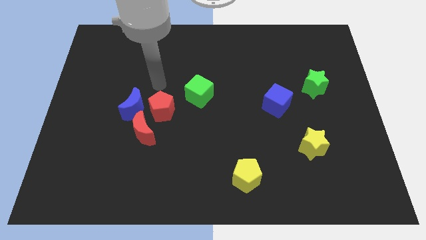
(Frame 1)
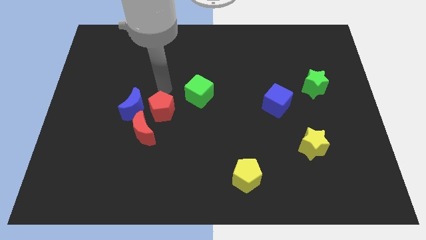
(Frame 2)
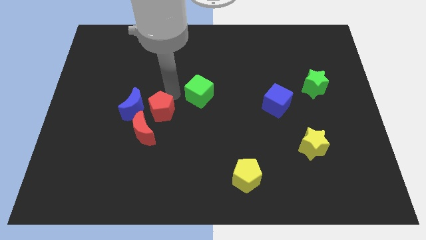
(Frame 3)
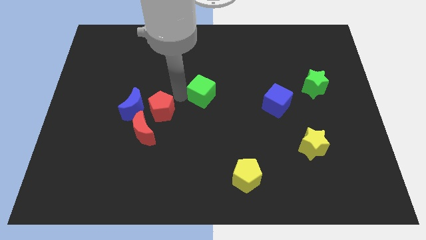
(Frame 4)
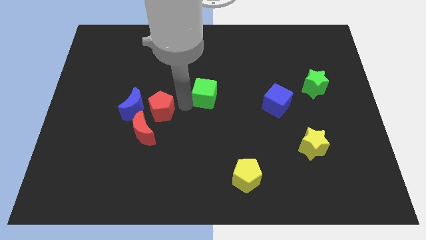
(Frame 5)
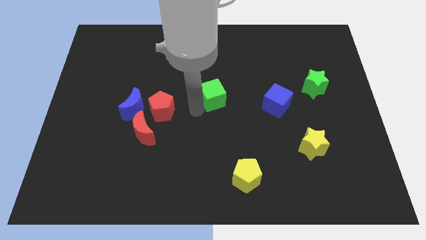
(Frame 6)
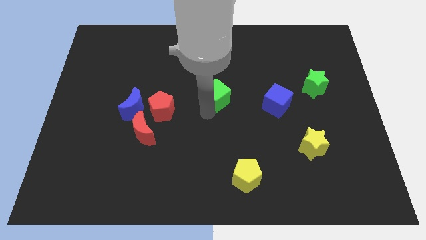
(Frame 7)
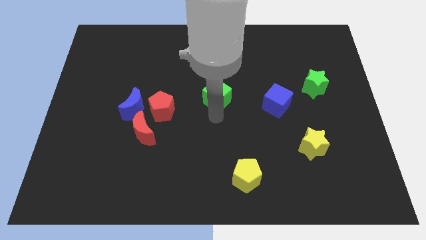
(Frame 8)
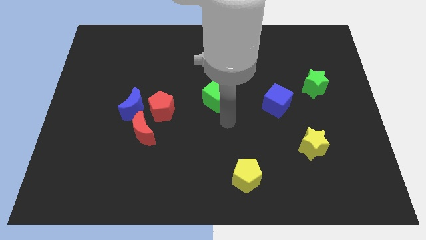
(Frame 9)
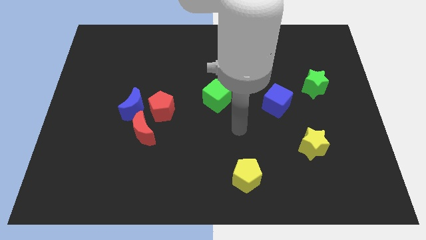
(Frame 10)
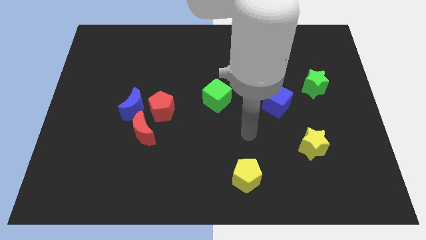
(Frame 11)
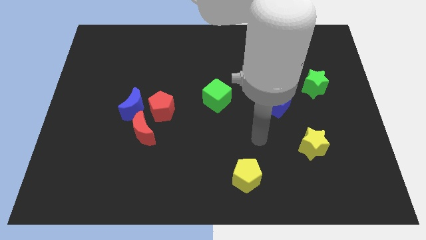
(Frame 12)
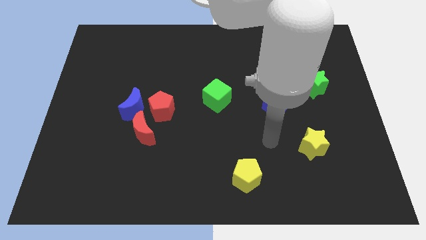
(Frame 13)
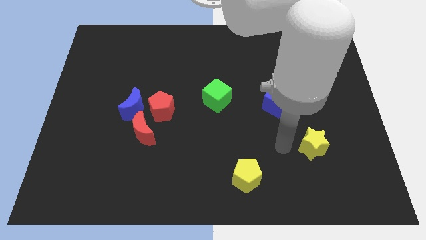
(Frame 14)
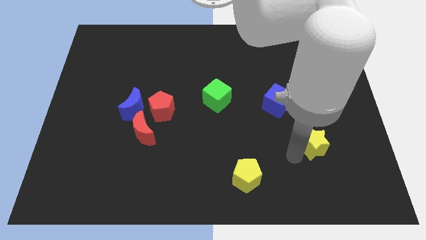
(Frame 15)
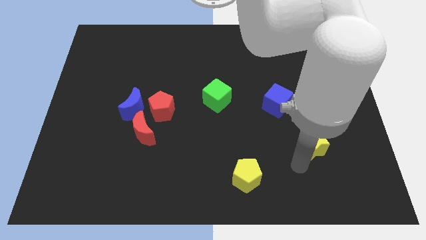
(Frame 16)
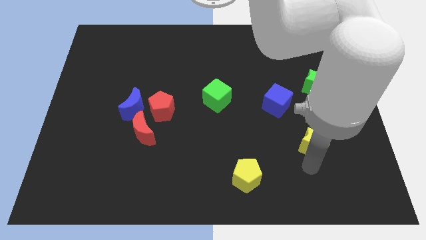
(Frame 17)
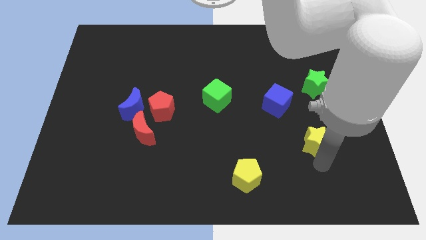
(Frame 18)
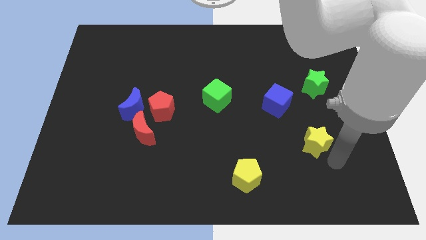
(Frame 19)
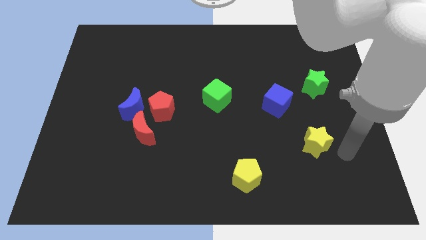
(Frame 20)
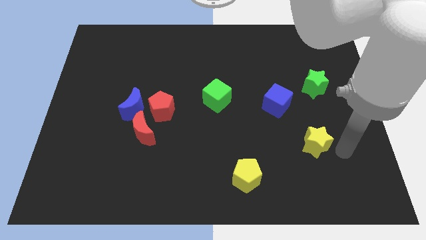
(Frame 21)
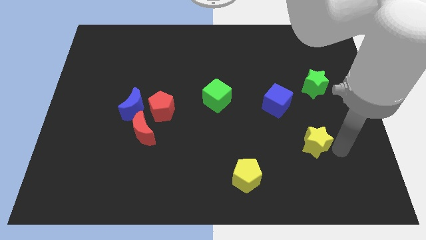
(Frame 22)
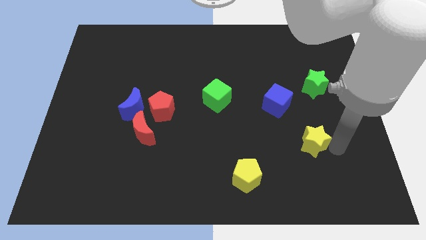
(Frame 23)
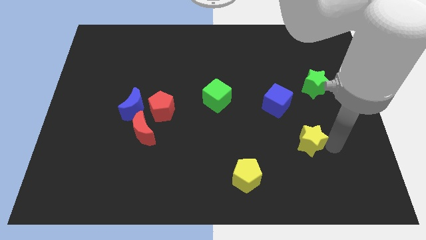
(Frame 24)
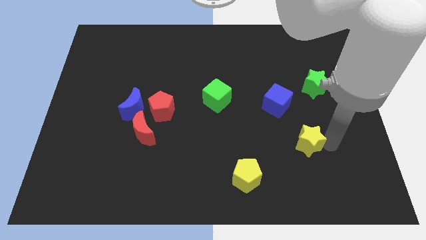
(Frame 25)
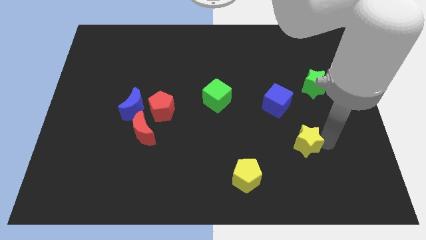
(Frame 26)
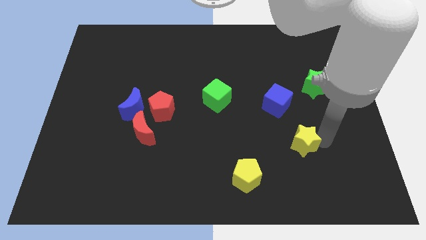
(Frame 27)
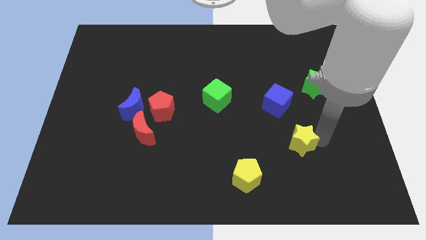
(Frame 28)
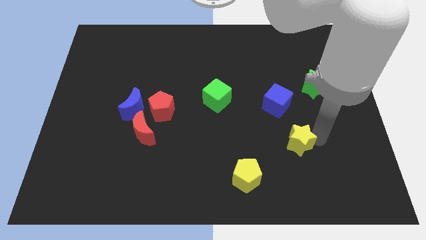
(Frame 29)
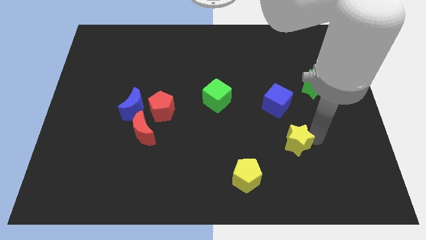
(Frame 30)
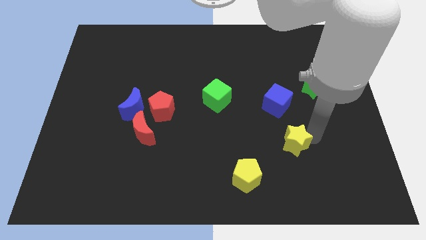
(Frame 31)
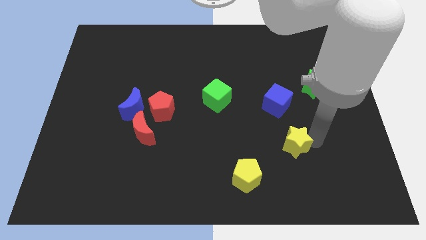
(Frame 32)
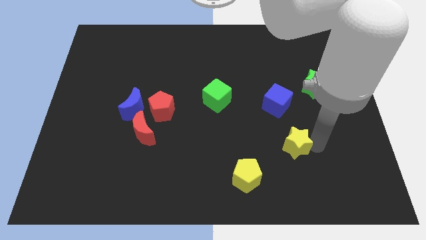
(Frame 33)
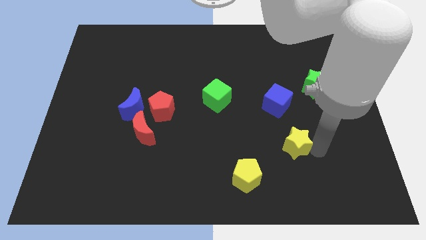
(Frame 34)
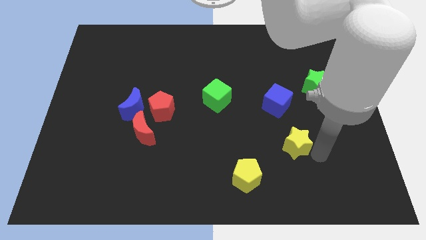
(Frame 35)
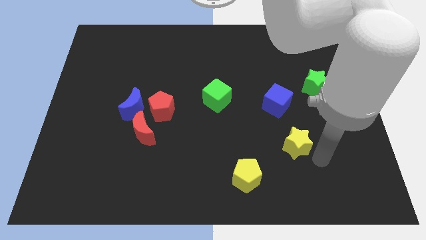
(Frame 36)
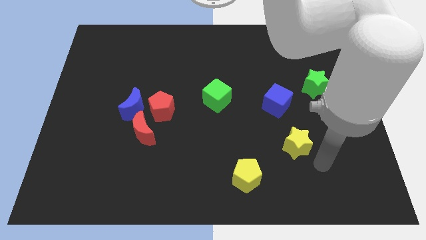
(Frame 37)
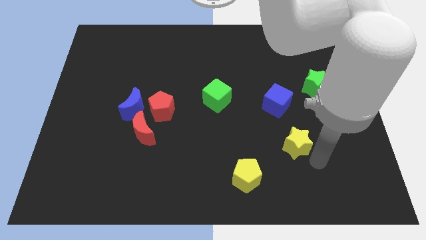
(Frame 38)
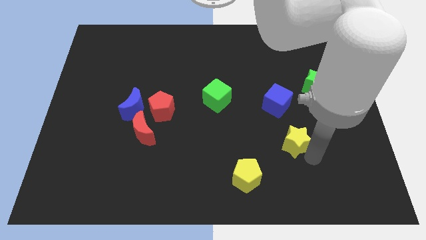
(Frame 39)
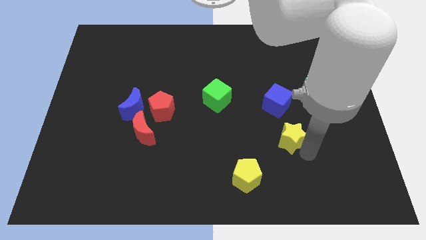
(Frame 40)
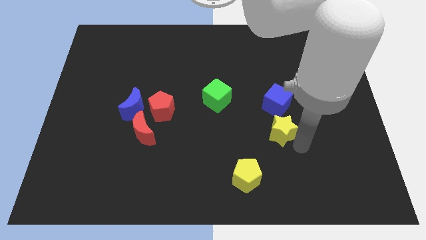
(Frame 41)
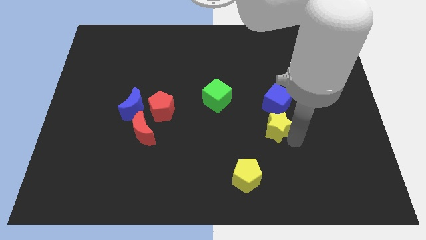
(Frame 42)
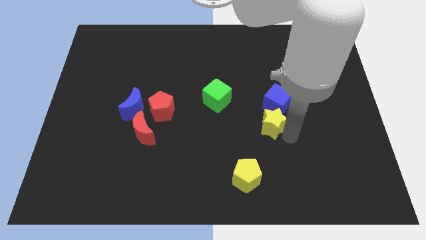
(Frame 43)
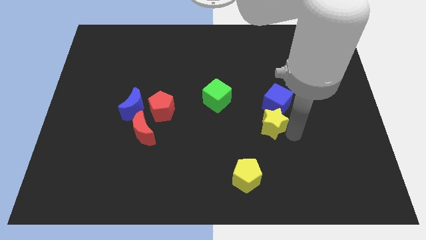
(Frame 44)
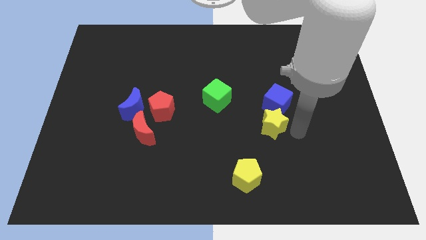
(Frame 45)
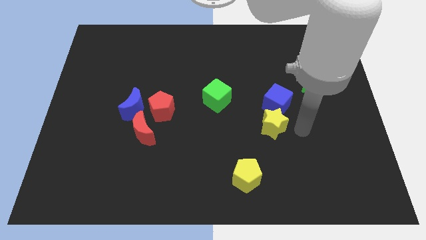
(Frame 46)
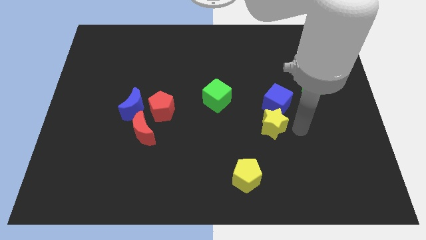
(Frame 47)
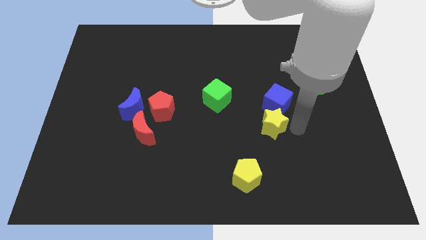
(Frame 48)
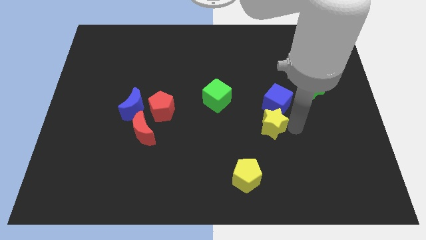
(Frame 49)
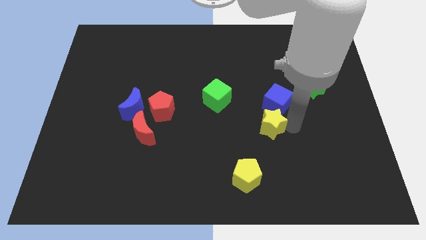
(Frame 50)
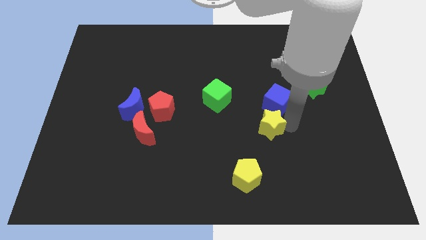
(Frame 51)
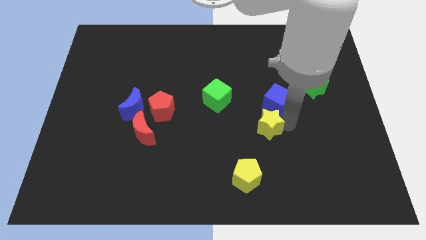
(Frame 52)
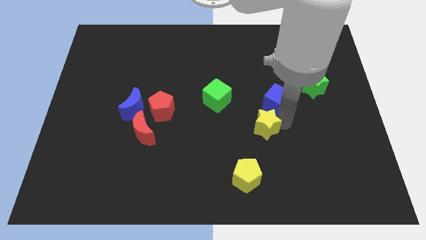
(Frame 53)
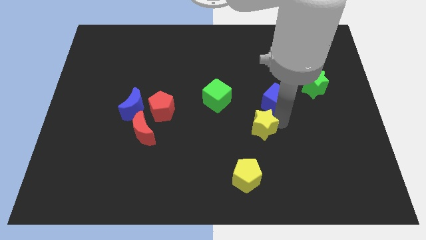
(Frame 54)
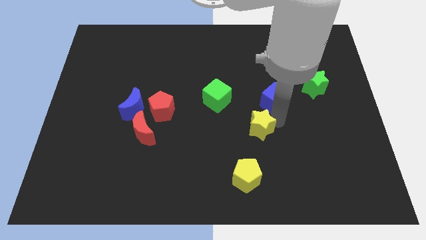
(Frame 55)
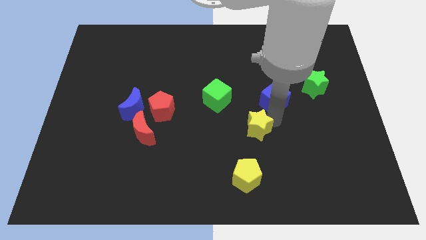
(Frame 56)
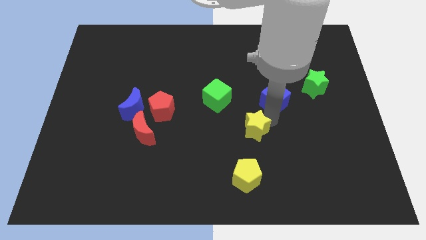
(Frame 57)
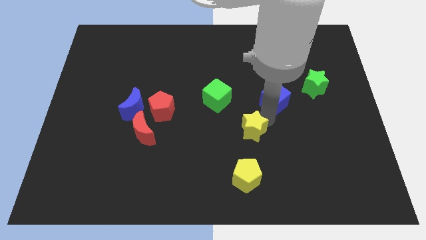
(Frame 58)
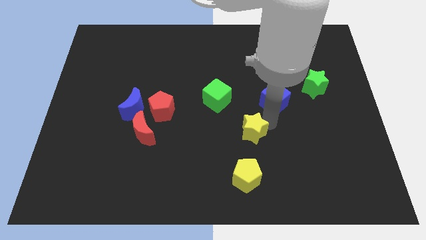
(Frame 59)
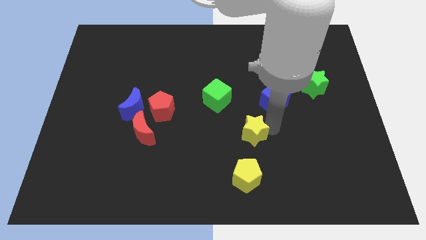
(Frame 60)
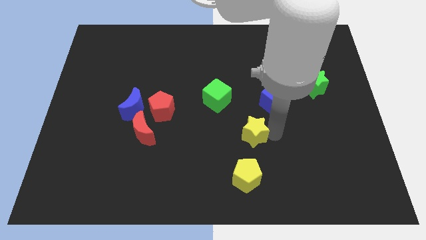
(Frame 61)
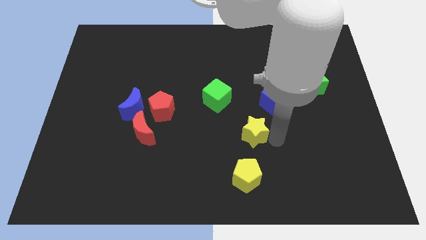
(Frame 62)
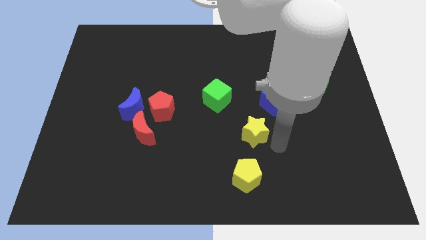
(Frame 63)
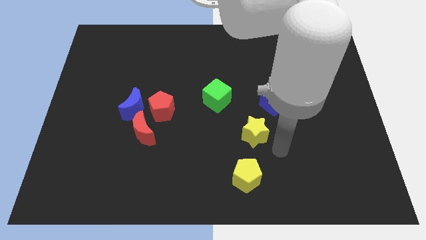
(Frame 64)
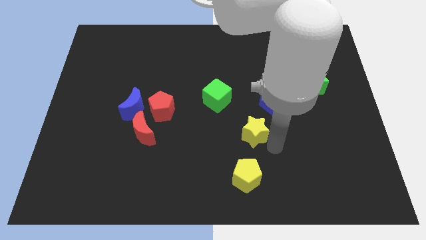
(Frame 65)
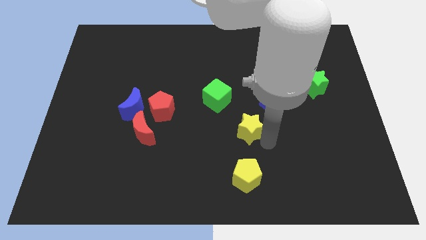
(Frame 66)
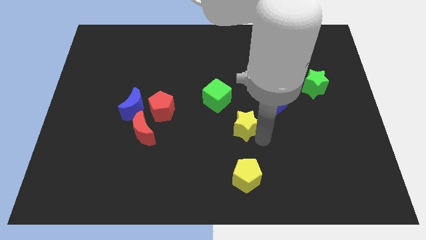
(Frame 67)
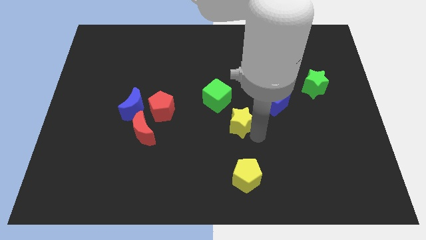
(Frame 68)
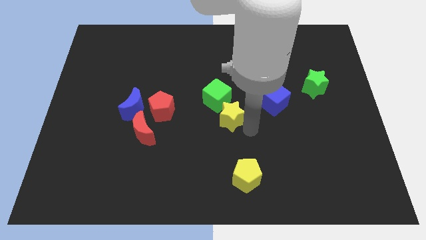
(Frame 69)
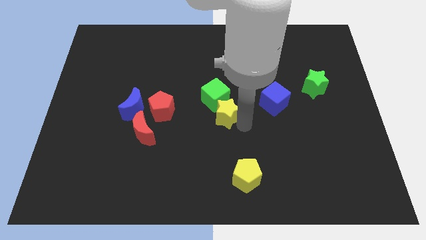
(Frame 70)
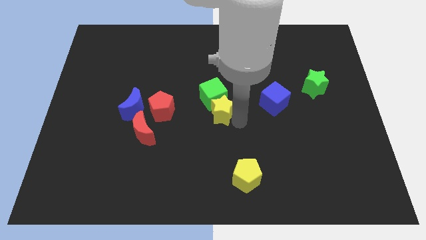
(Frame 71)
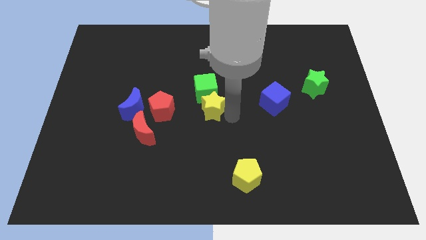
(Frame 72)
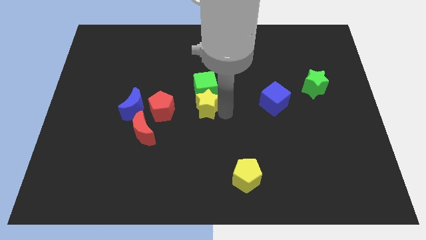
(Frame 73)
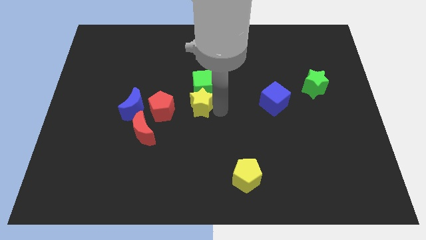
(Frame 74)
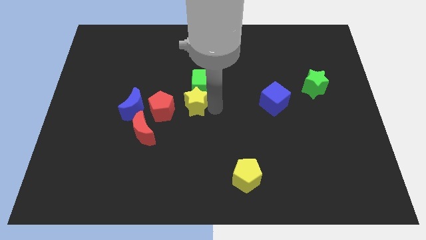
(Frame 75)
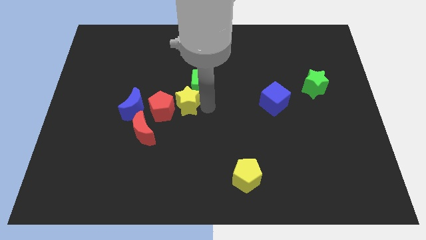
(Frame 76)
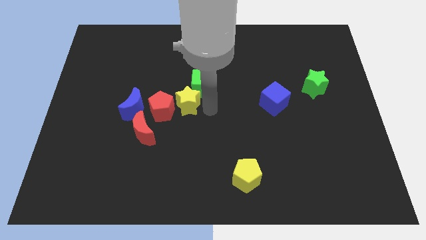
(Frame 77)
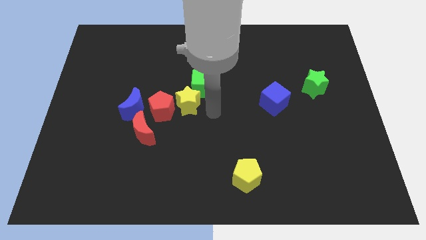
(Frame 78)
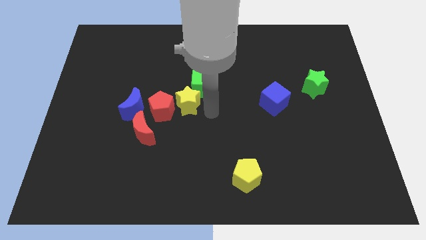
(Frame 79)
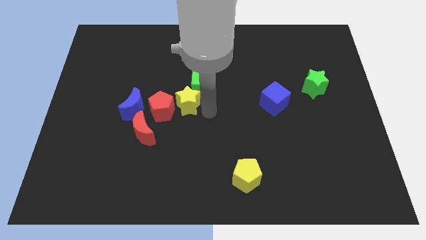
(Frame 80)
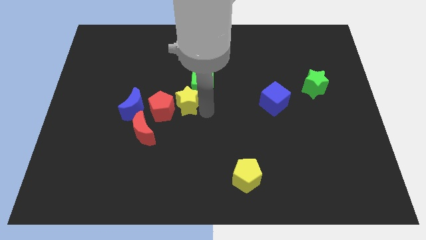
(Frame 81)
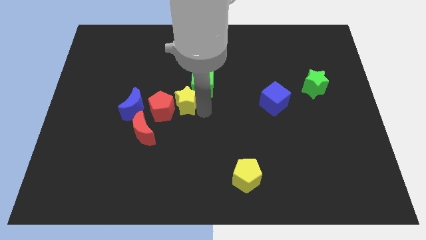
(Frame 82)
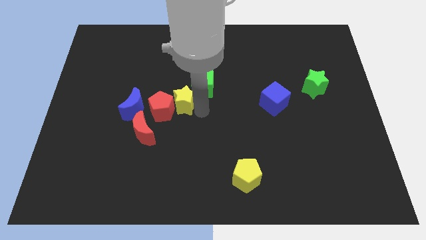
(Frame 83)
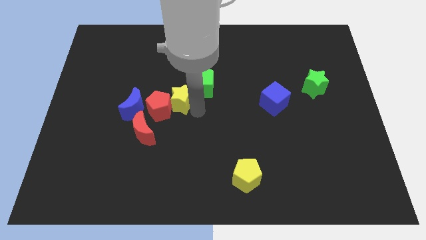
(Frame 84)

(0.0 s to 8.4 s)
move the yellow star to the left of the green cube
